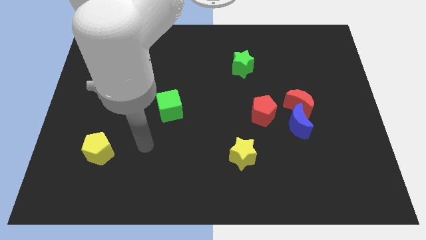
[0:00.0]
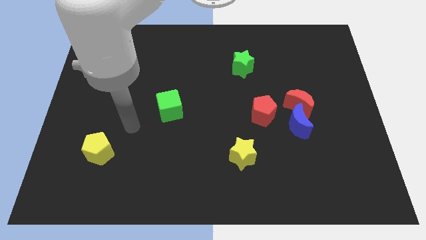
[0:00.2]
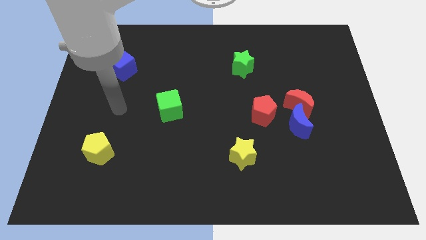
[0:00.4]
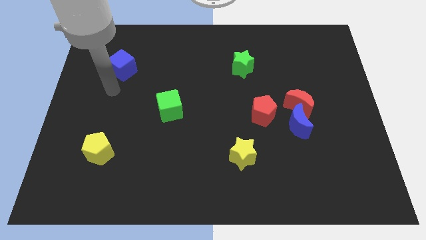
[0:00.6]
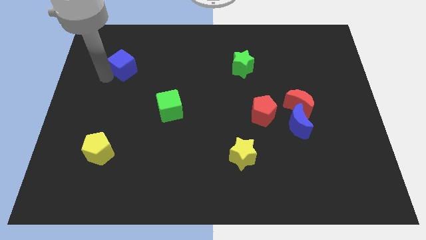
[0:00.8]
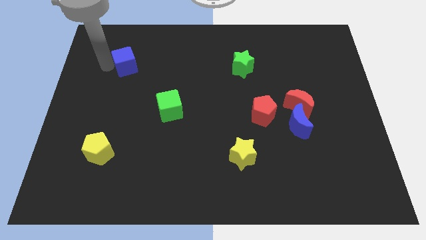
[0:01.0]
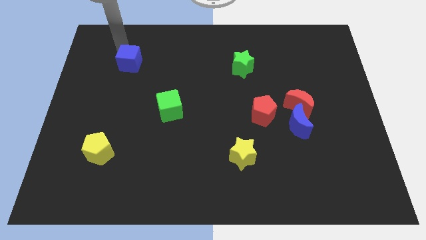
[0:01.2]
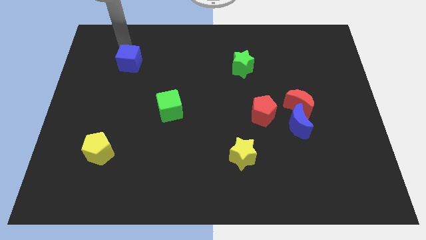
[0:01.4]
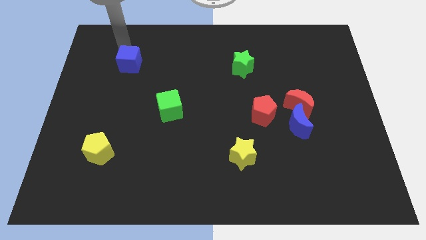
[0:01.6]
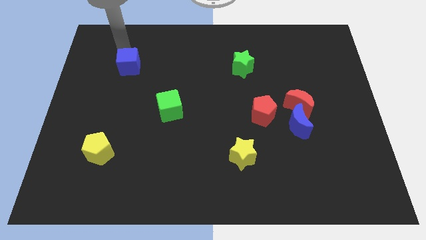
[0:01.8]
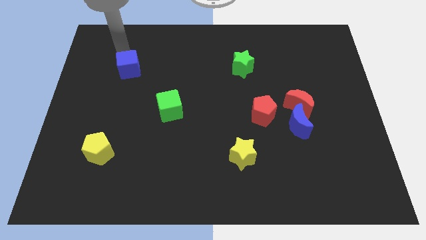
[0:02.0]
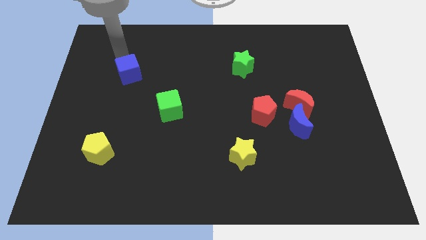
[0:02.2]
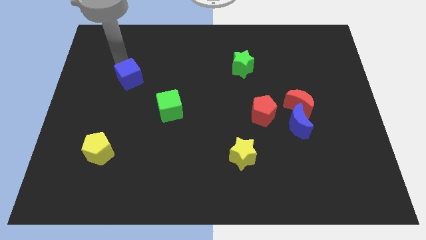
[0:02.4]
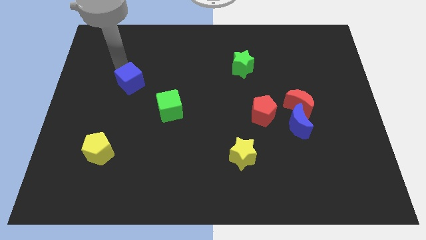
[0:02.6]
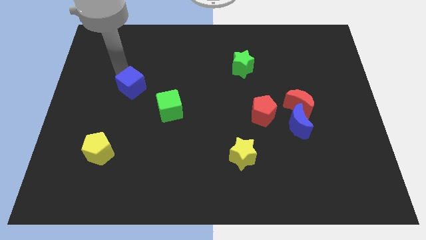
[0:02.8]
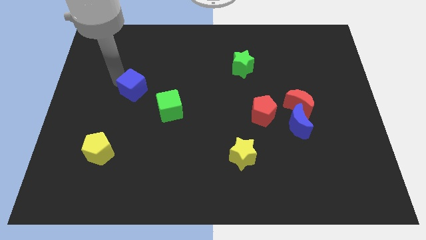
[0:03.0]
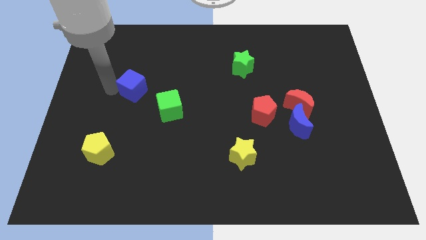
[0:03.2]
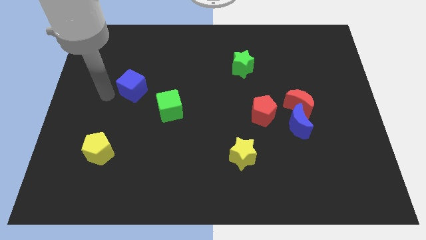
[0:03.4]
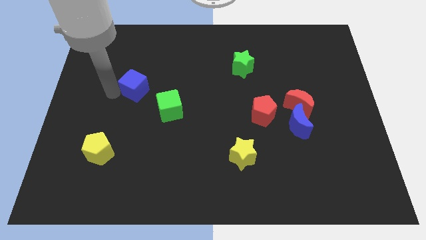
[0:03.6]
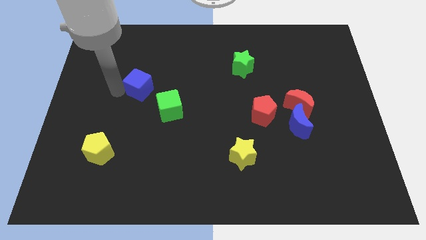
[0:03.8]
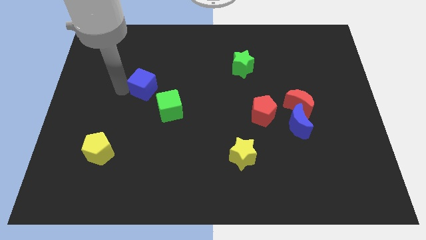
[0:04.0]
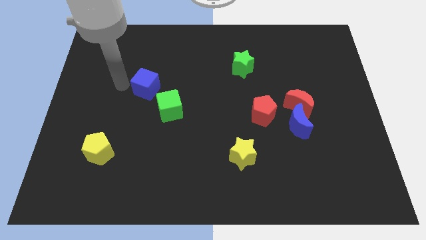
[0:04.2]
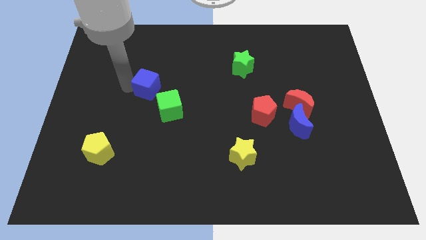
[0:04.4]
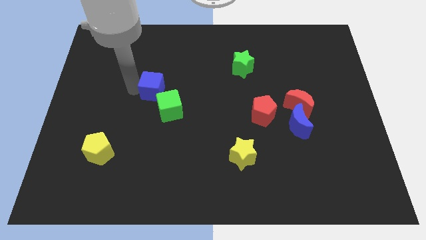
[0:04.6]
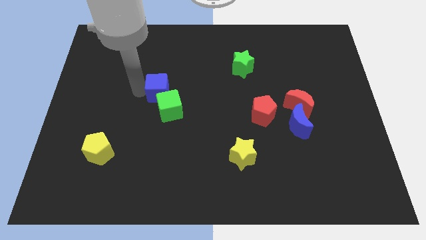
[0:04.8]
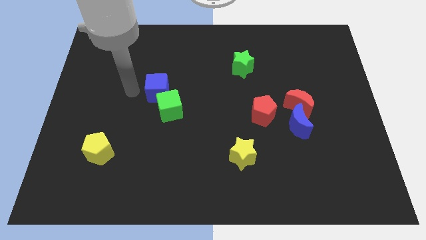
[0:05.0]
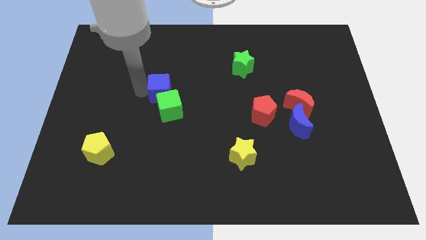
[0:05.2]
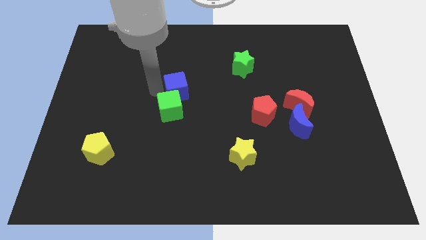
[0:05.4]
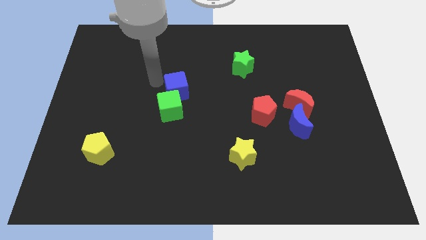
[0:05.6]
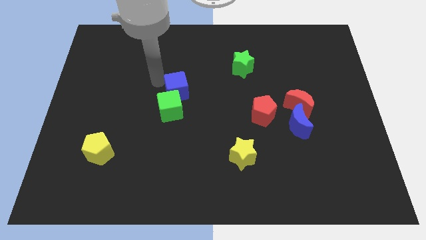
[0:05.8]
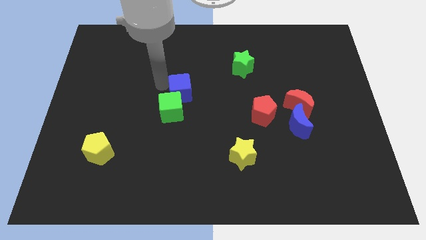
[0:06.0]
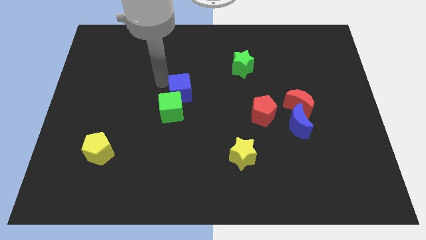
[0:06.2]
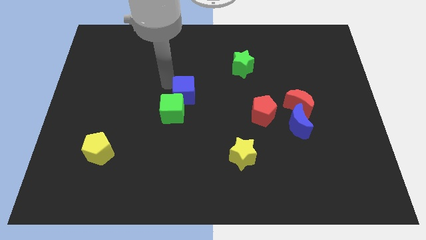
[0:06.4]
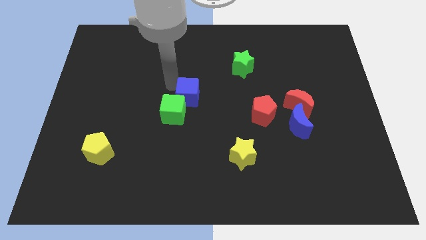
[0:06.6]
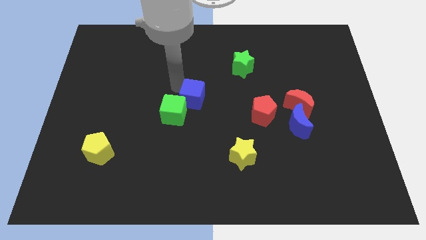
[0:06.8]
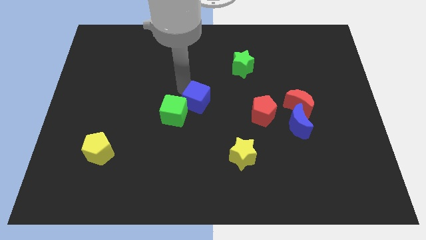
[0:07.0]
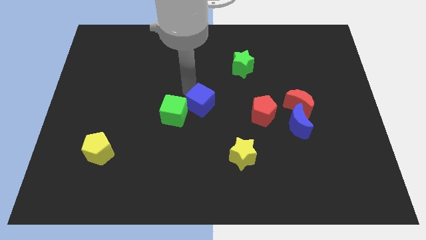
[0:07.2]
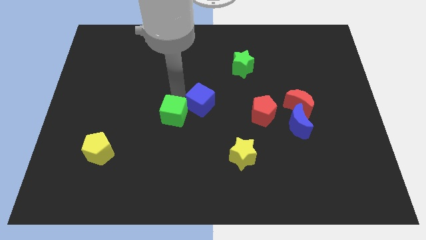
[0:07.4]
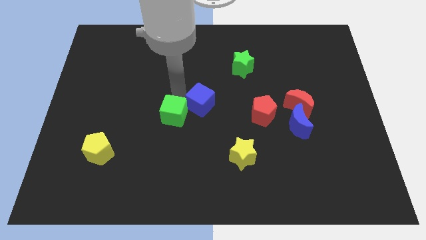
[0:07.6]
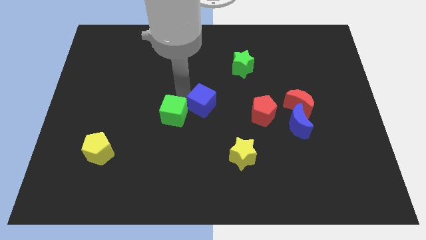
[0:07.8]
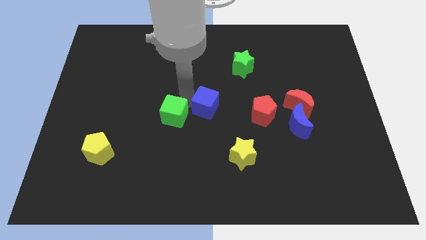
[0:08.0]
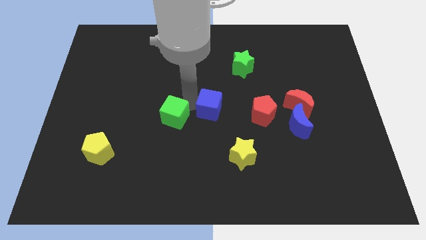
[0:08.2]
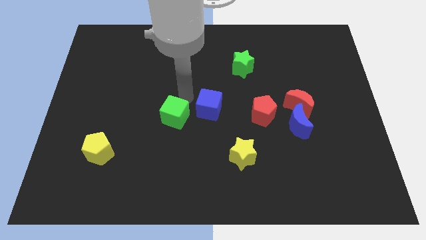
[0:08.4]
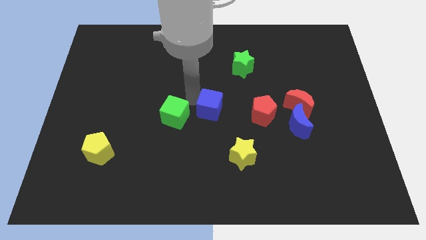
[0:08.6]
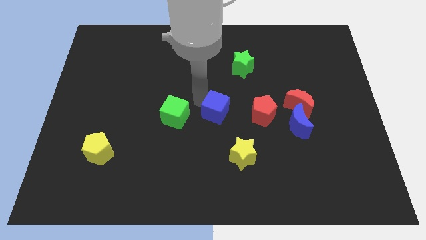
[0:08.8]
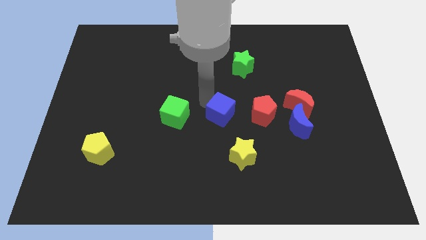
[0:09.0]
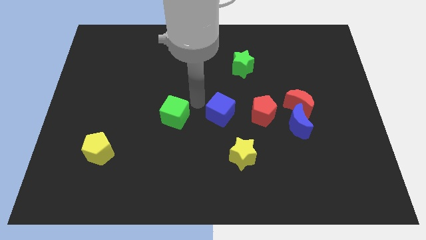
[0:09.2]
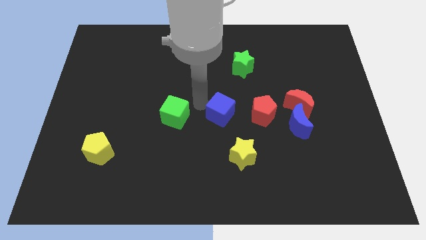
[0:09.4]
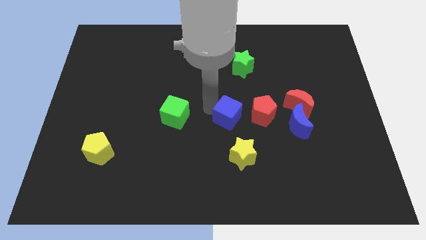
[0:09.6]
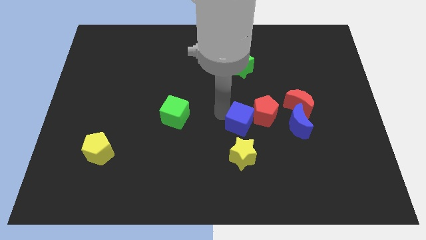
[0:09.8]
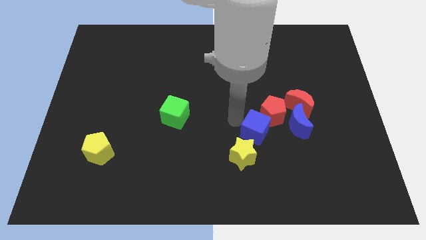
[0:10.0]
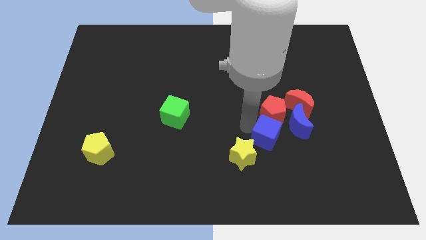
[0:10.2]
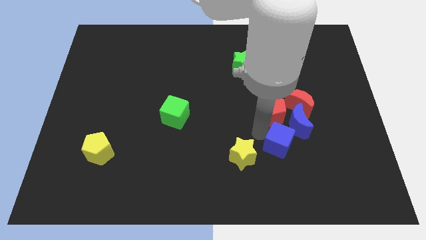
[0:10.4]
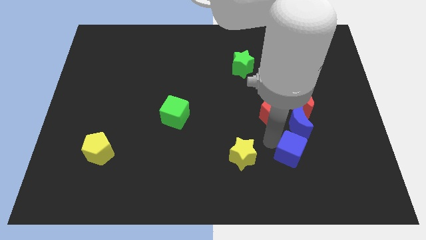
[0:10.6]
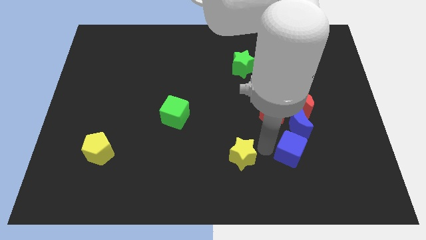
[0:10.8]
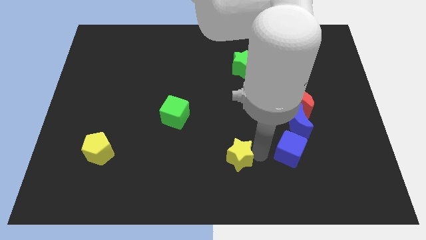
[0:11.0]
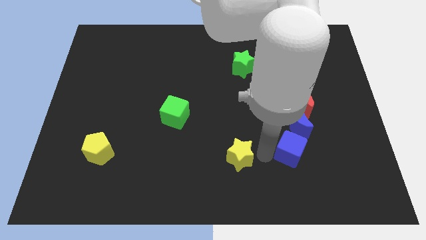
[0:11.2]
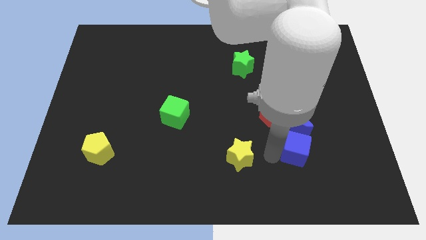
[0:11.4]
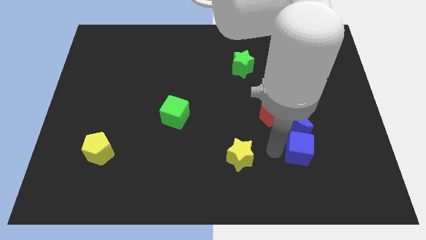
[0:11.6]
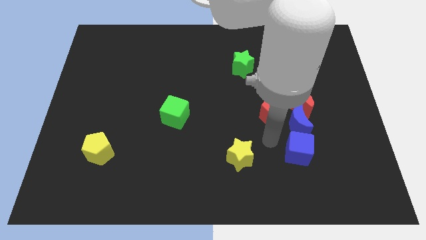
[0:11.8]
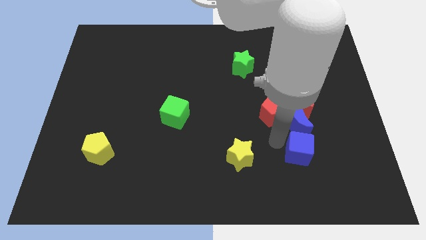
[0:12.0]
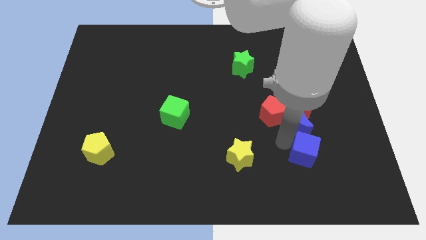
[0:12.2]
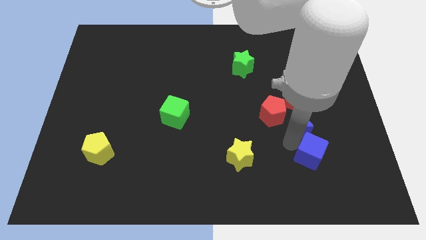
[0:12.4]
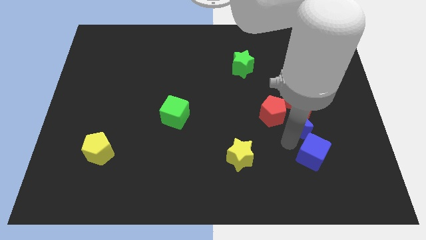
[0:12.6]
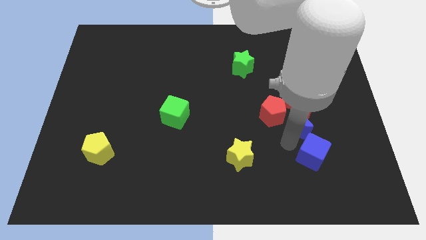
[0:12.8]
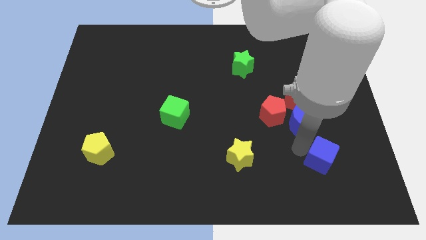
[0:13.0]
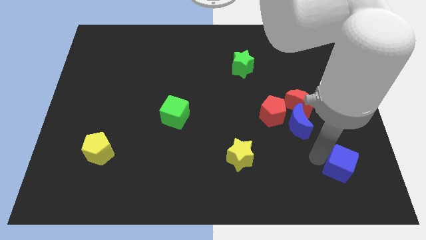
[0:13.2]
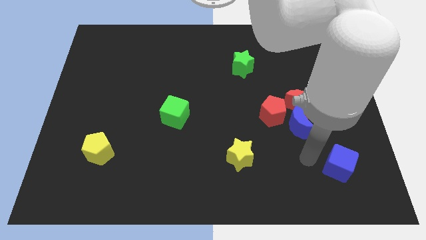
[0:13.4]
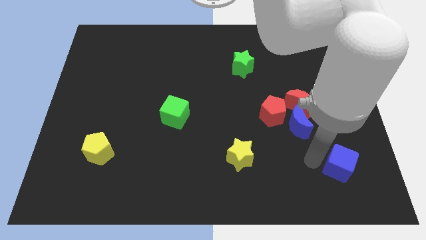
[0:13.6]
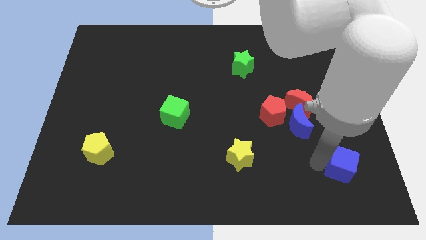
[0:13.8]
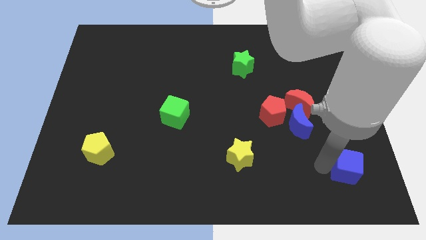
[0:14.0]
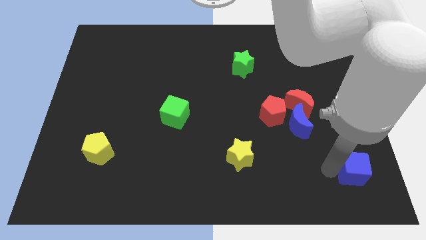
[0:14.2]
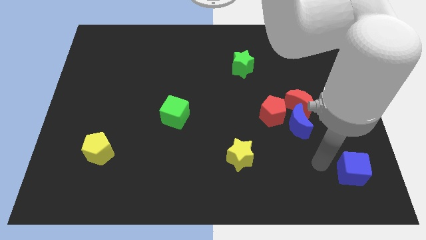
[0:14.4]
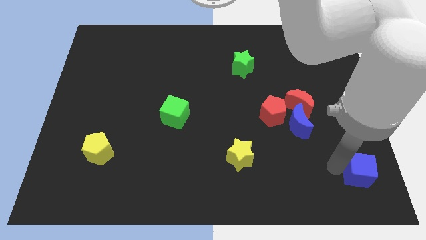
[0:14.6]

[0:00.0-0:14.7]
slide the blue cube to the bottom right of the board
